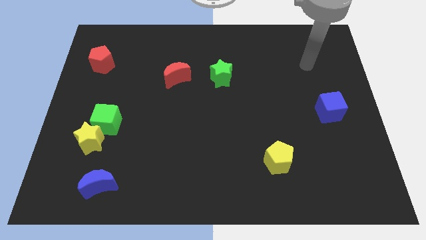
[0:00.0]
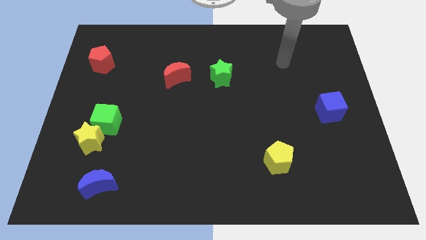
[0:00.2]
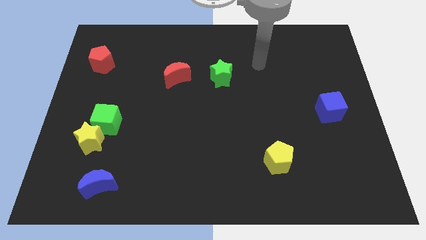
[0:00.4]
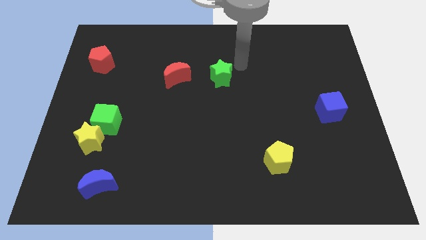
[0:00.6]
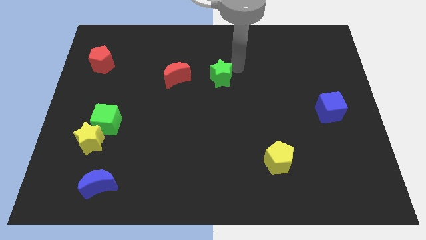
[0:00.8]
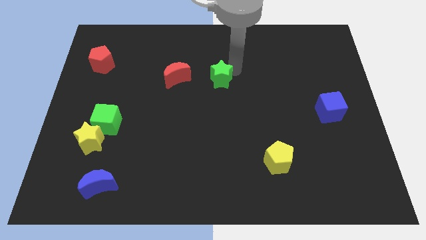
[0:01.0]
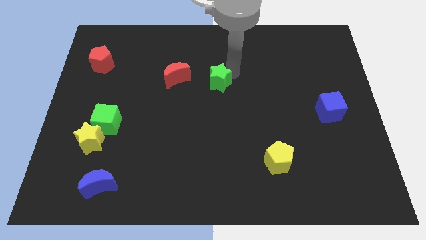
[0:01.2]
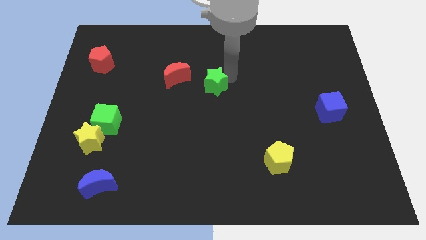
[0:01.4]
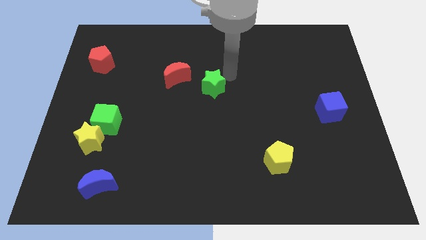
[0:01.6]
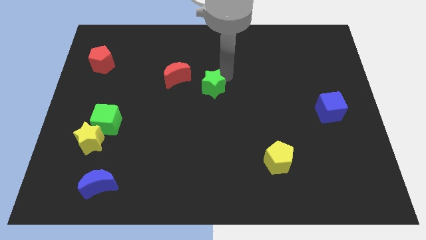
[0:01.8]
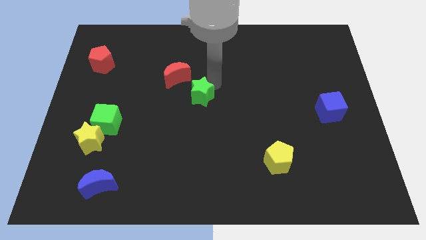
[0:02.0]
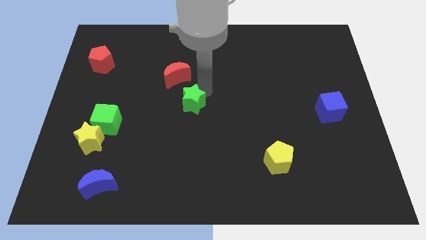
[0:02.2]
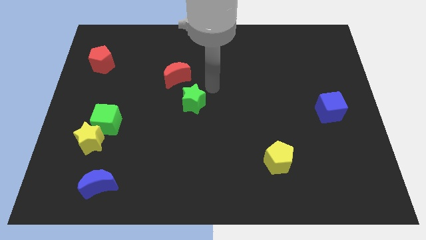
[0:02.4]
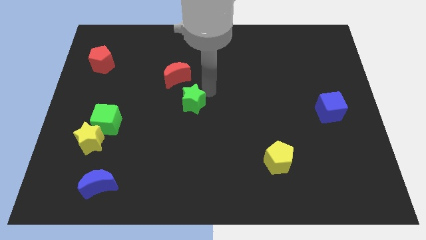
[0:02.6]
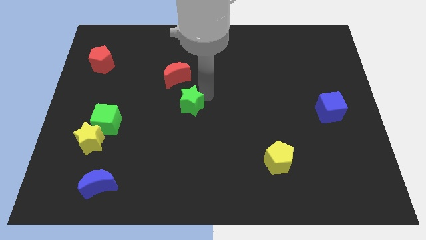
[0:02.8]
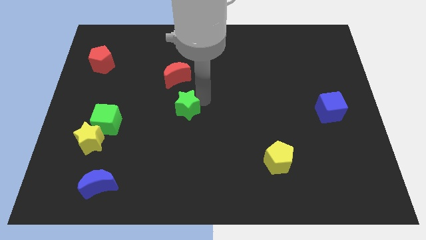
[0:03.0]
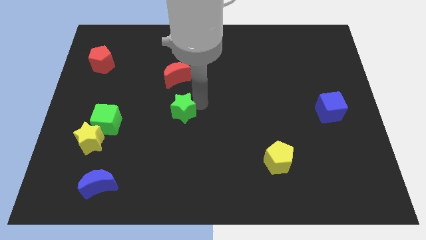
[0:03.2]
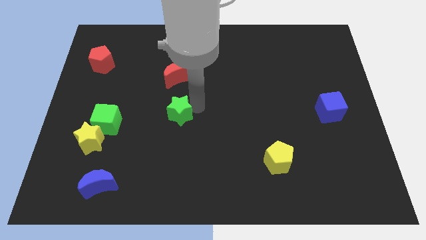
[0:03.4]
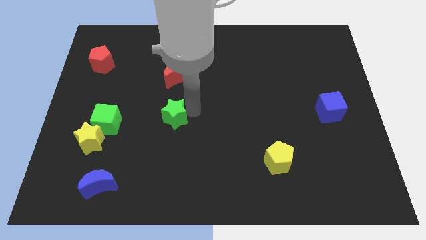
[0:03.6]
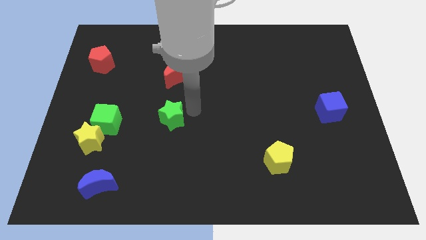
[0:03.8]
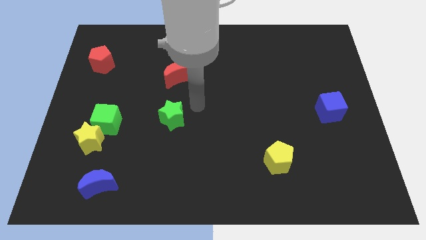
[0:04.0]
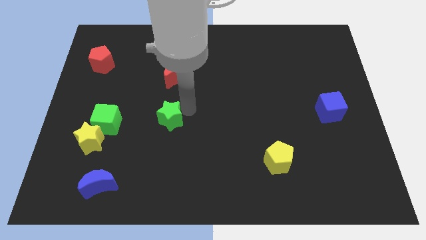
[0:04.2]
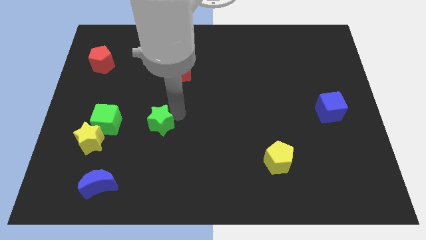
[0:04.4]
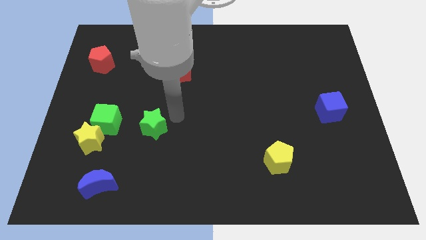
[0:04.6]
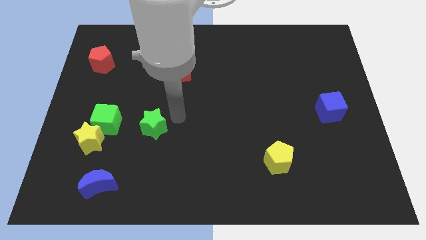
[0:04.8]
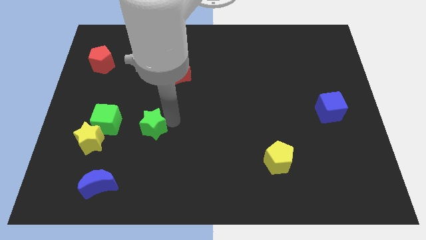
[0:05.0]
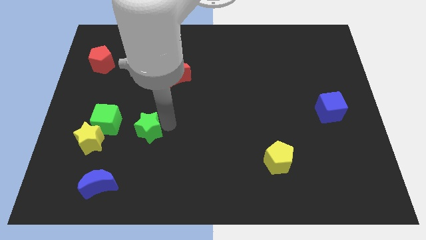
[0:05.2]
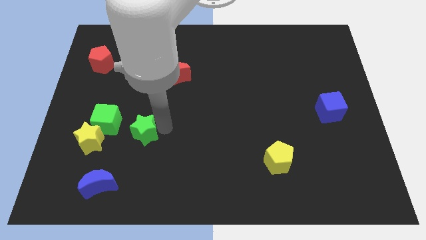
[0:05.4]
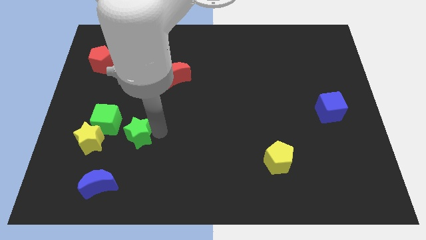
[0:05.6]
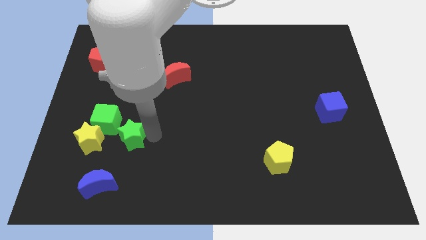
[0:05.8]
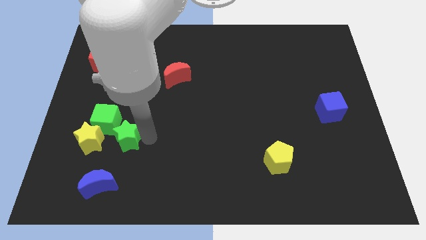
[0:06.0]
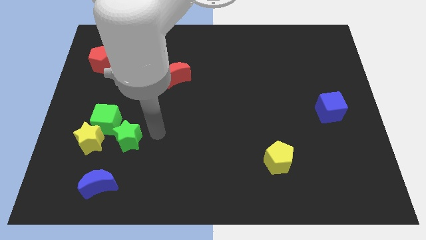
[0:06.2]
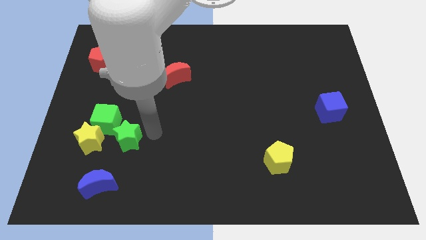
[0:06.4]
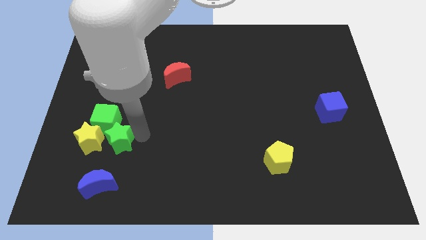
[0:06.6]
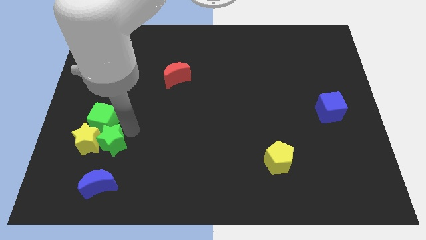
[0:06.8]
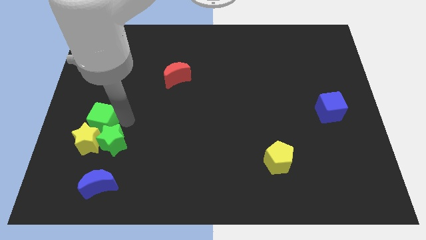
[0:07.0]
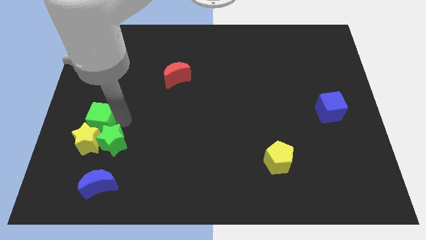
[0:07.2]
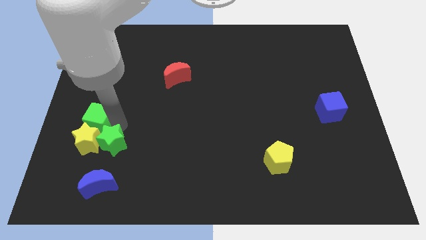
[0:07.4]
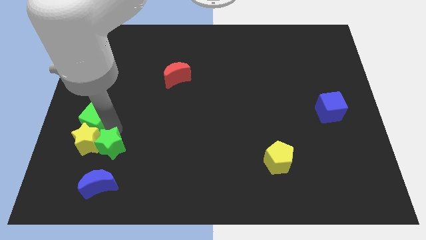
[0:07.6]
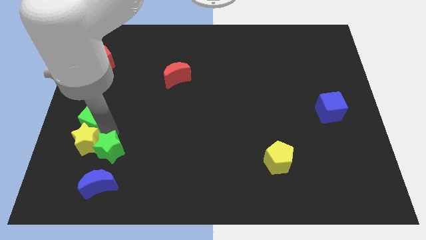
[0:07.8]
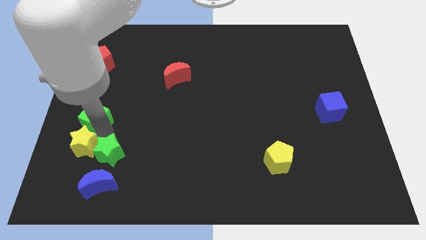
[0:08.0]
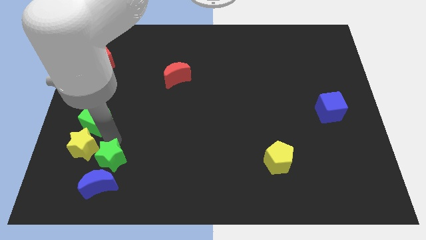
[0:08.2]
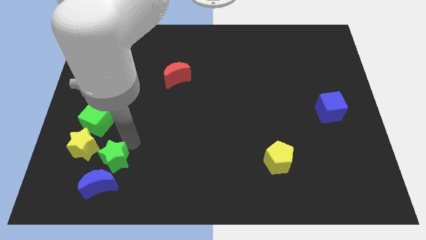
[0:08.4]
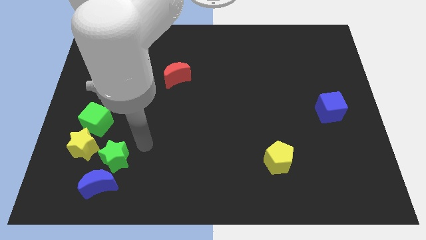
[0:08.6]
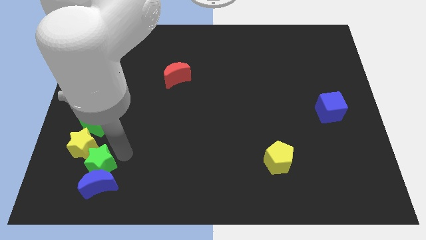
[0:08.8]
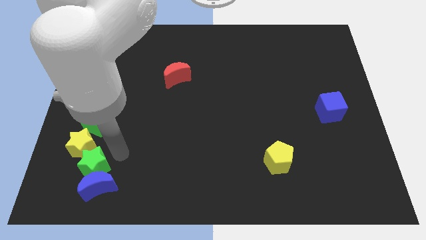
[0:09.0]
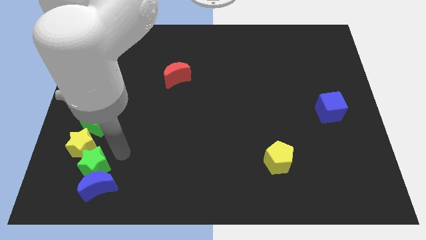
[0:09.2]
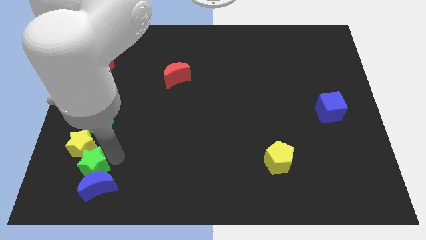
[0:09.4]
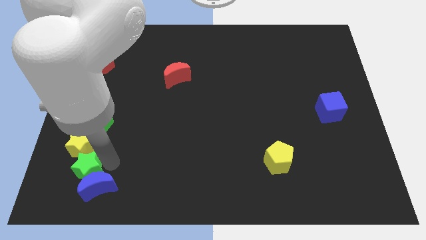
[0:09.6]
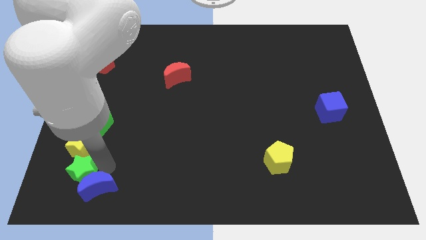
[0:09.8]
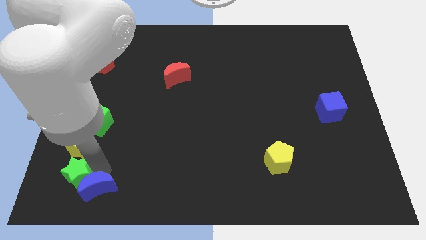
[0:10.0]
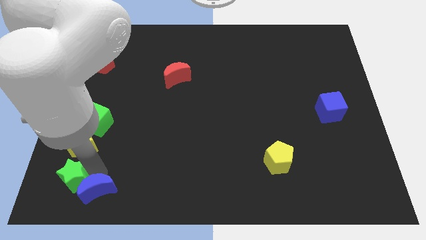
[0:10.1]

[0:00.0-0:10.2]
slide the green star to the bottom left of the board

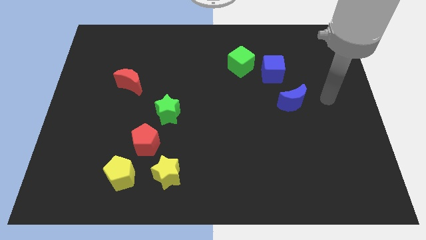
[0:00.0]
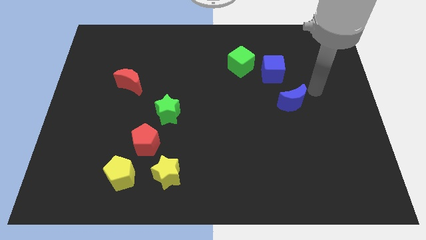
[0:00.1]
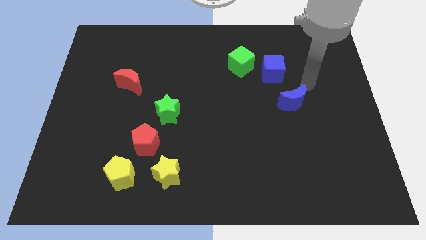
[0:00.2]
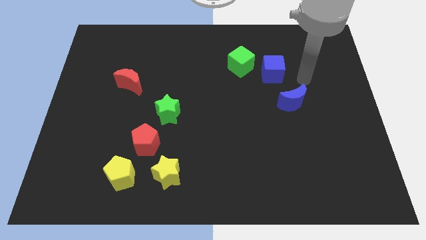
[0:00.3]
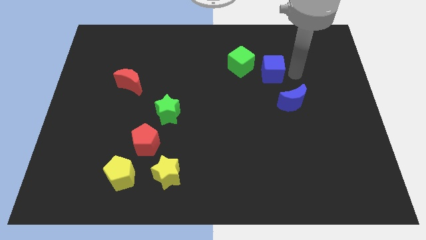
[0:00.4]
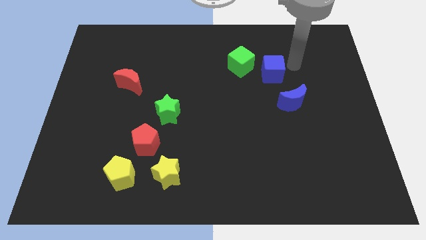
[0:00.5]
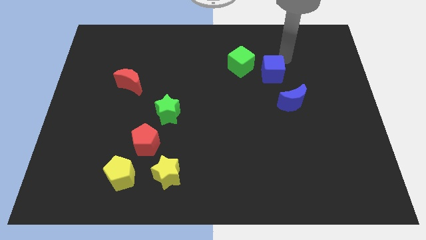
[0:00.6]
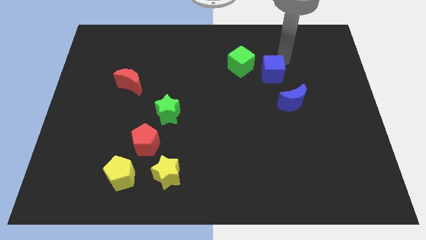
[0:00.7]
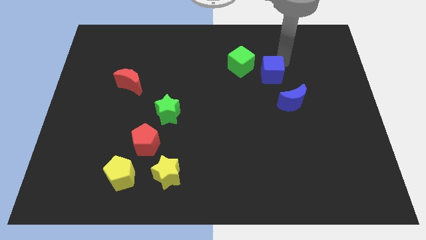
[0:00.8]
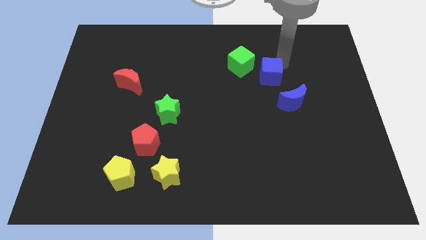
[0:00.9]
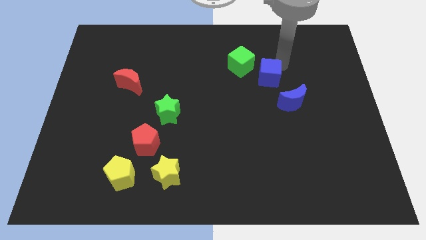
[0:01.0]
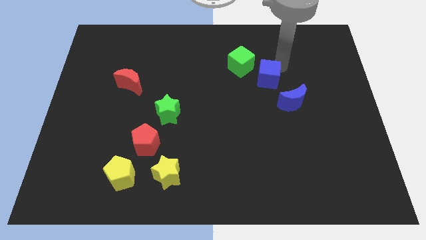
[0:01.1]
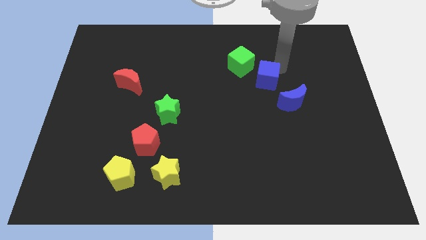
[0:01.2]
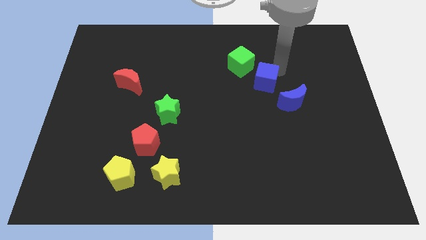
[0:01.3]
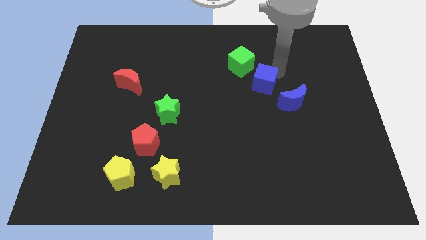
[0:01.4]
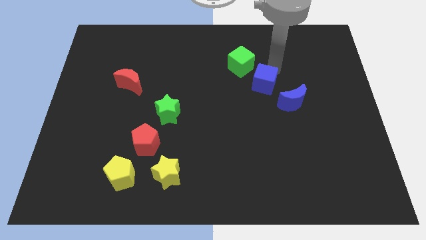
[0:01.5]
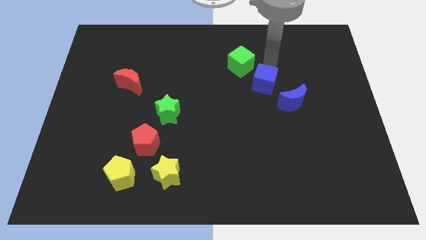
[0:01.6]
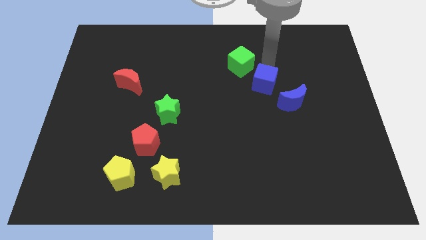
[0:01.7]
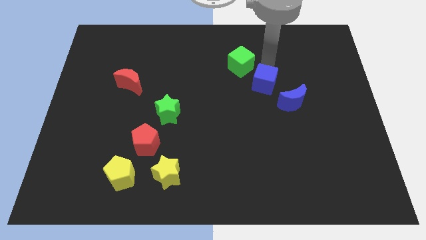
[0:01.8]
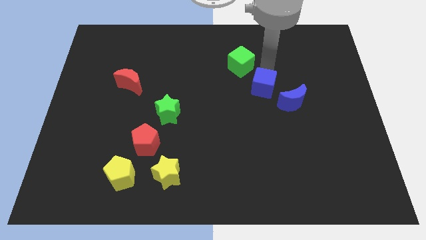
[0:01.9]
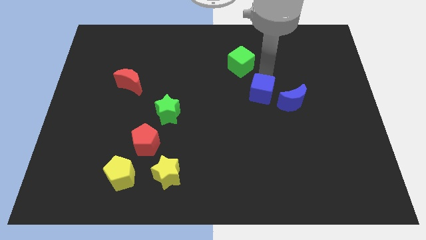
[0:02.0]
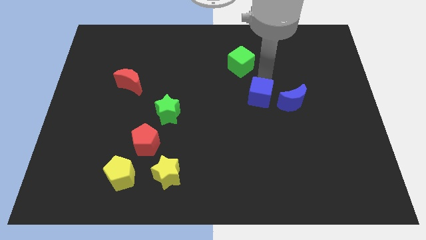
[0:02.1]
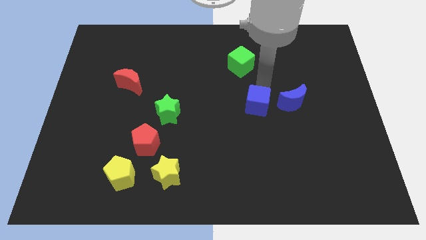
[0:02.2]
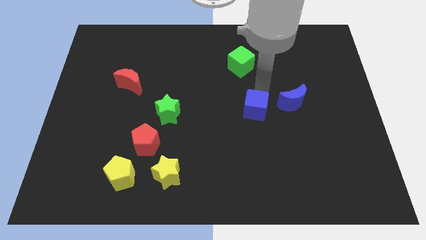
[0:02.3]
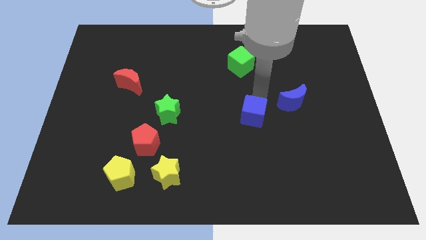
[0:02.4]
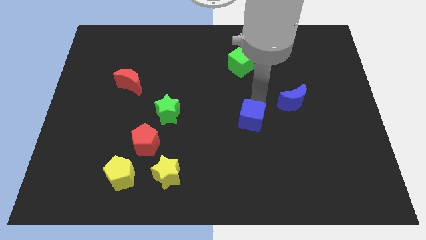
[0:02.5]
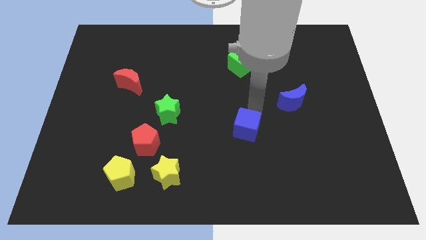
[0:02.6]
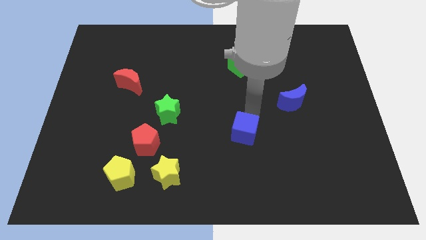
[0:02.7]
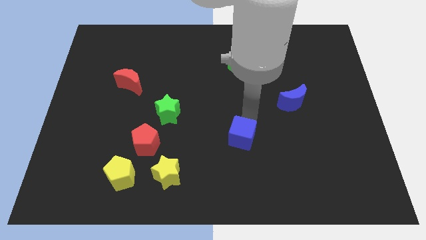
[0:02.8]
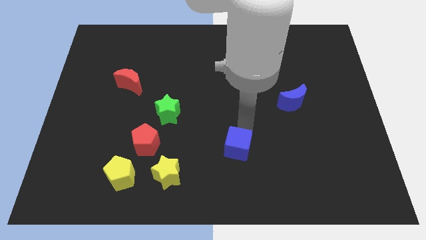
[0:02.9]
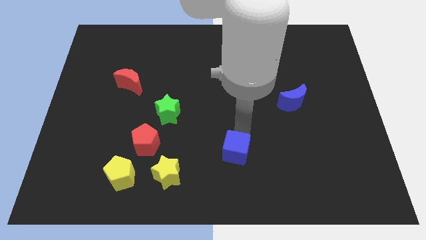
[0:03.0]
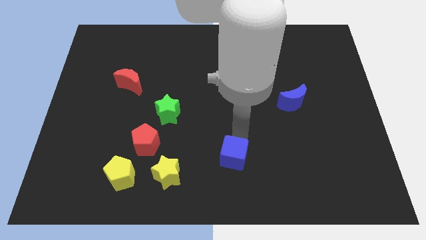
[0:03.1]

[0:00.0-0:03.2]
push the blue cube to the bottom side
